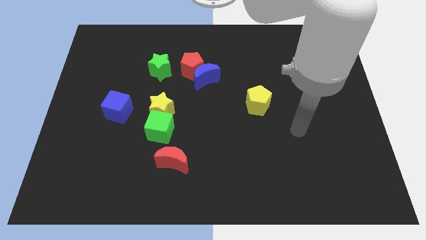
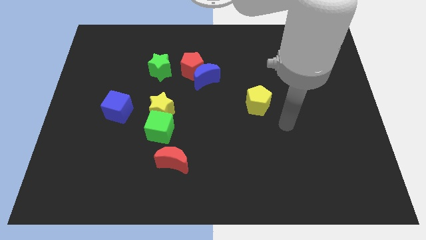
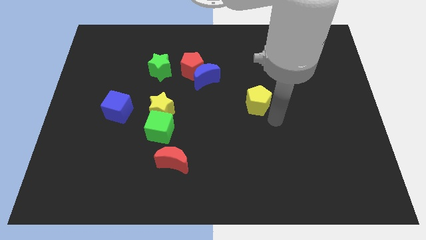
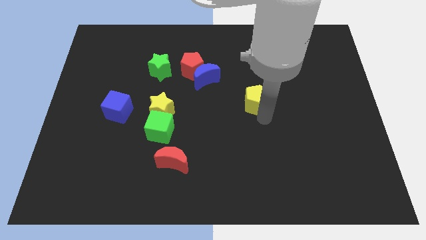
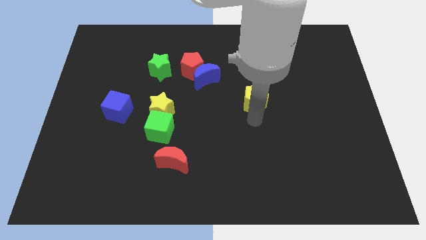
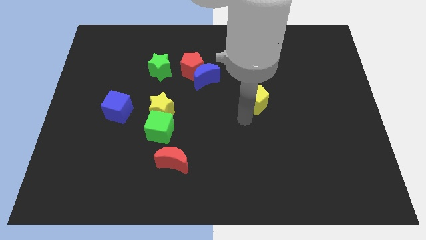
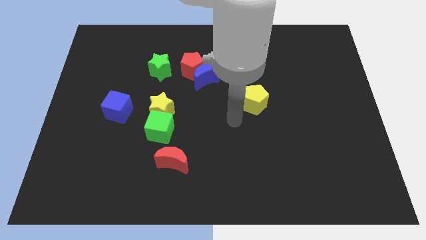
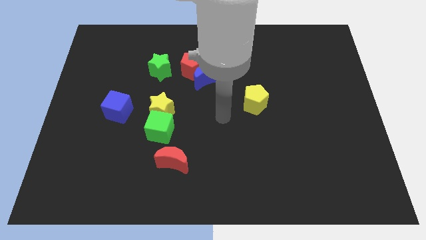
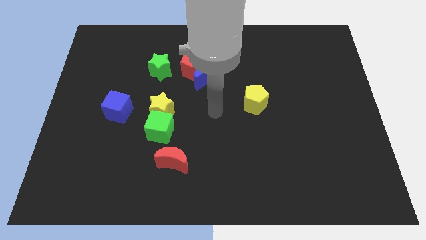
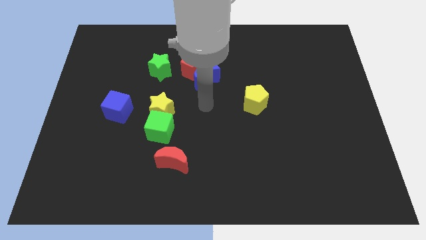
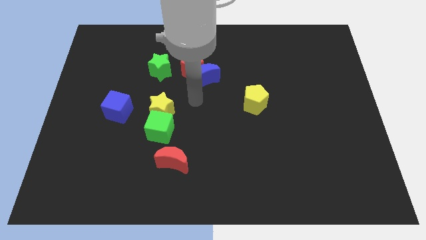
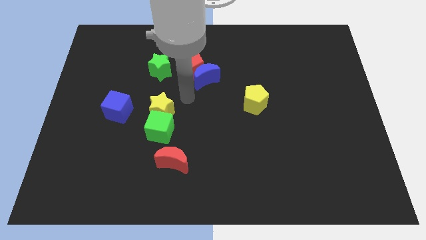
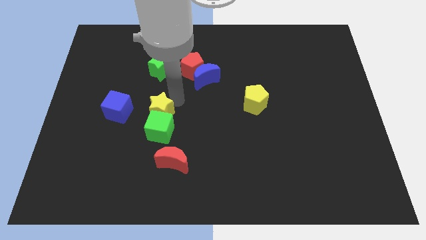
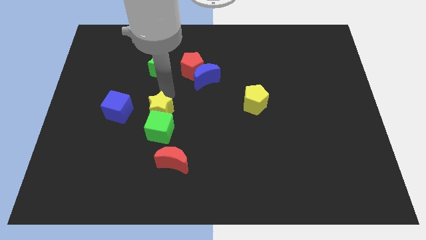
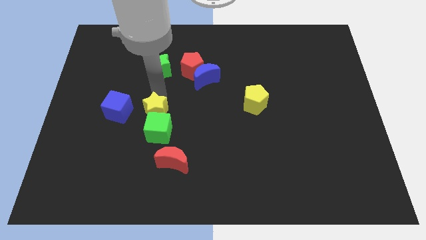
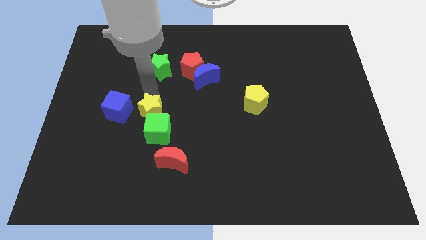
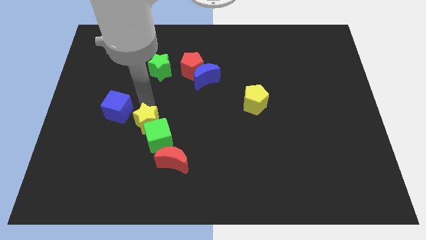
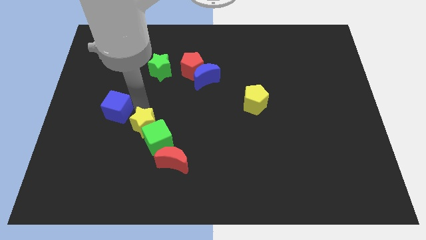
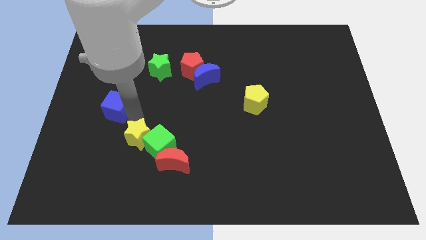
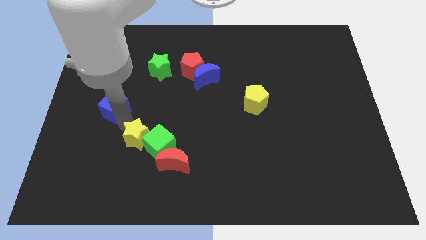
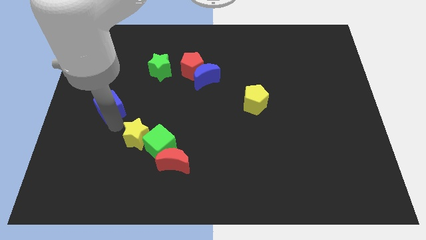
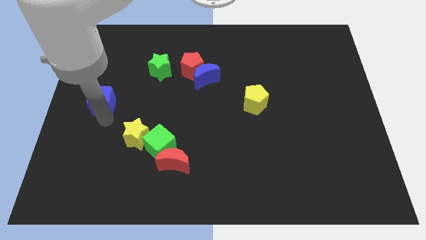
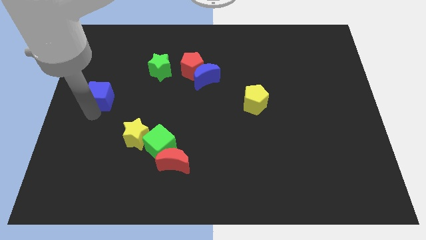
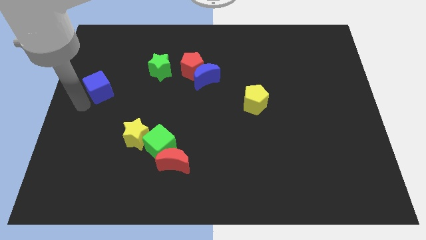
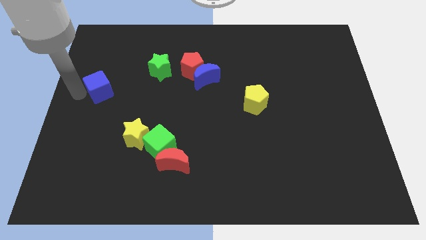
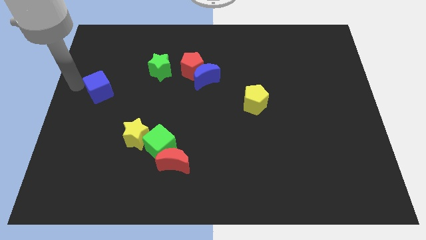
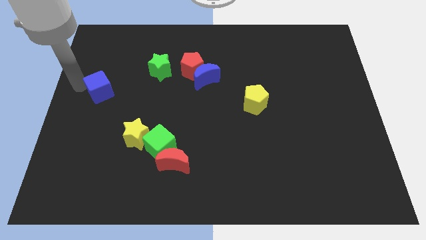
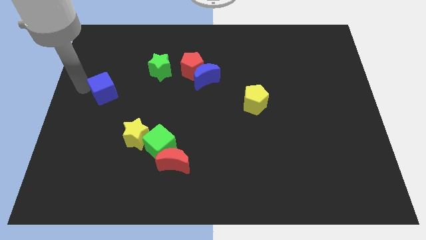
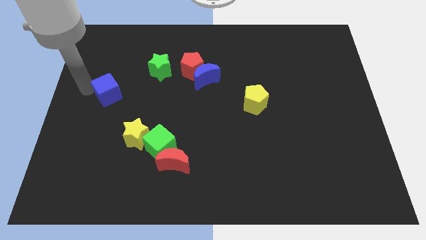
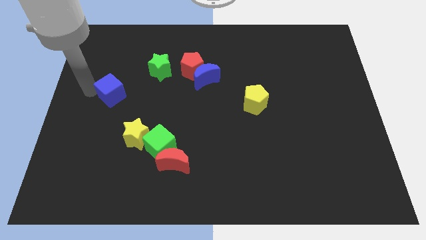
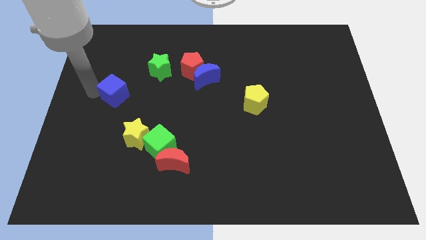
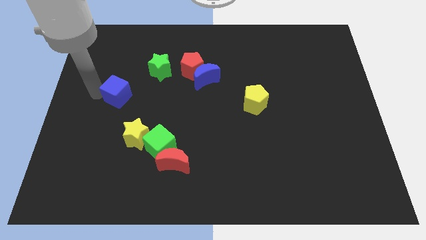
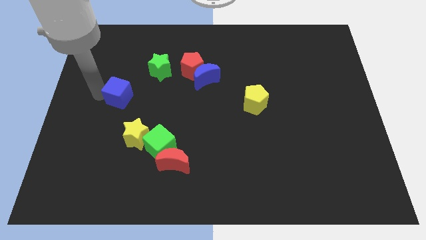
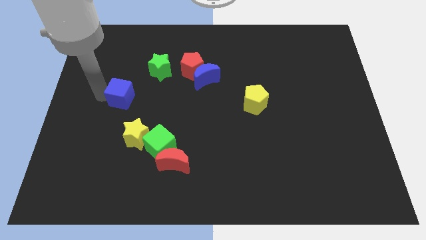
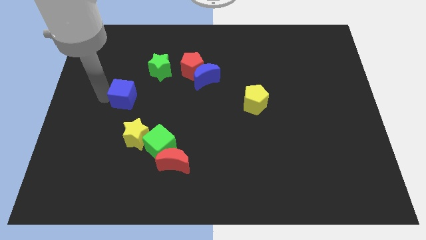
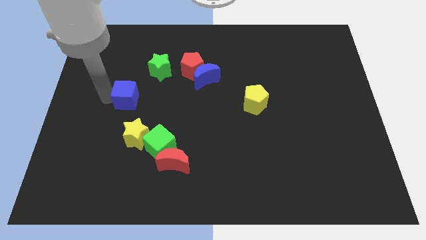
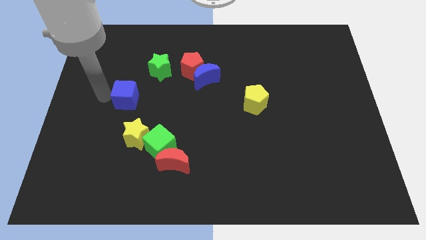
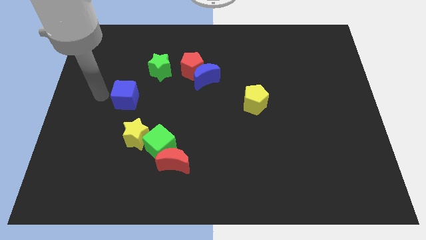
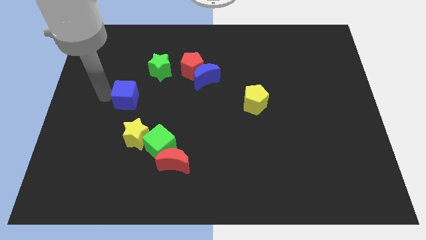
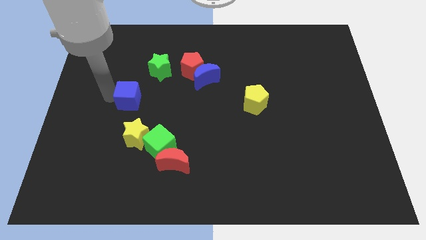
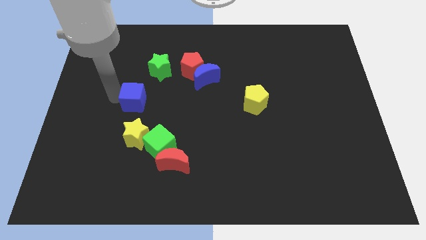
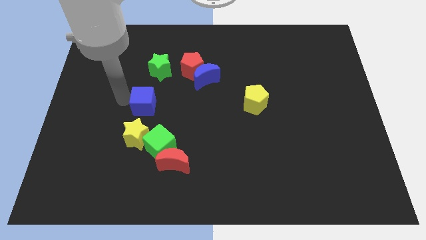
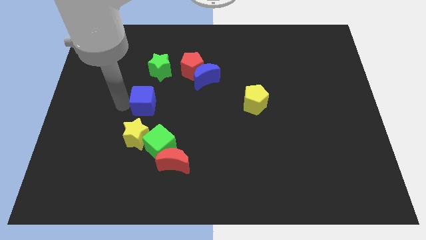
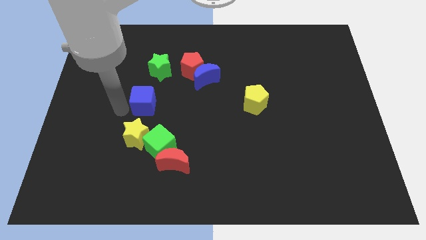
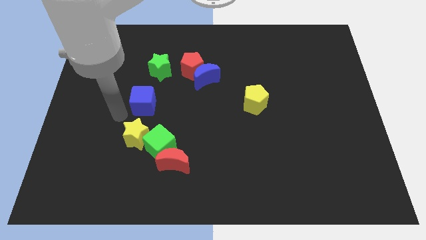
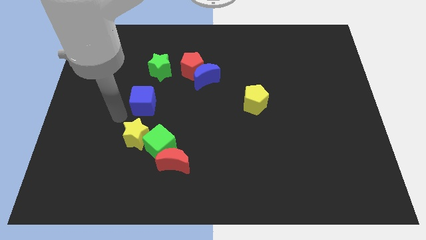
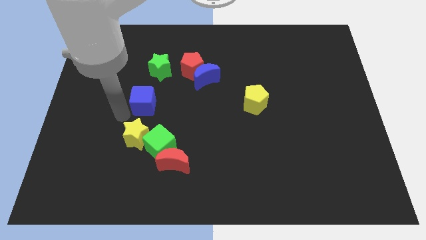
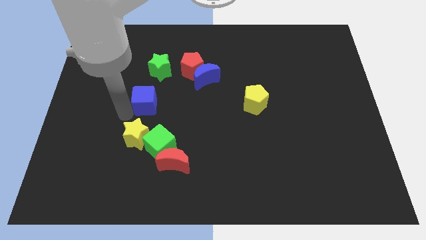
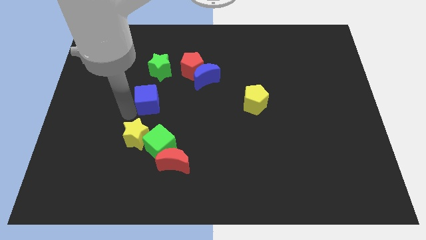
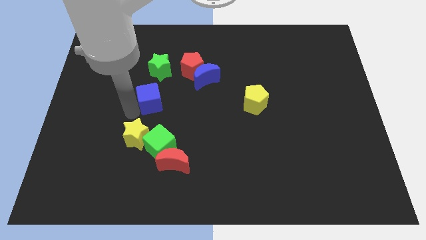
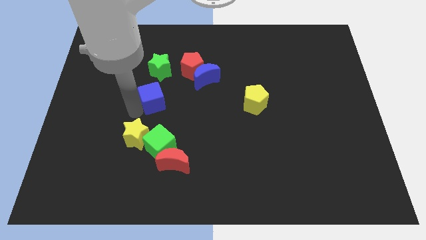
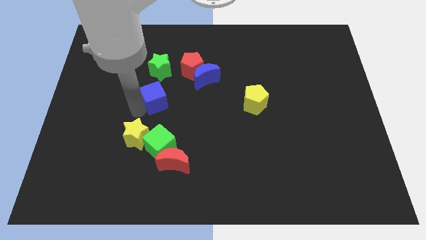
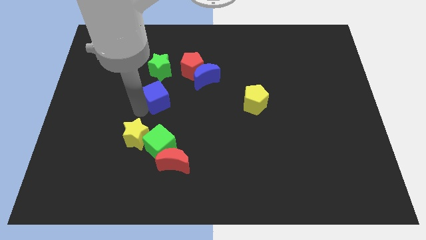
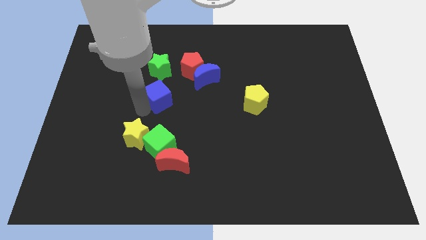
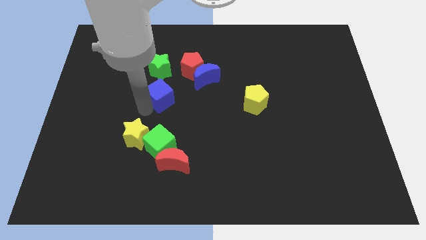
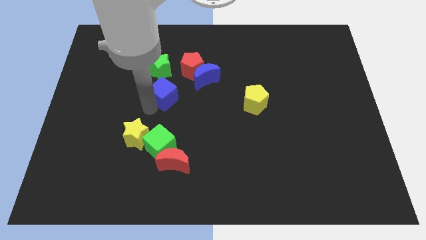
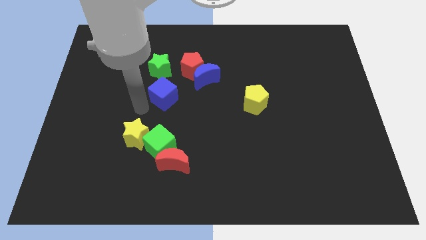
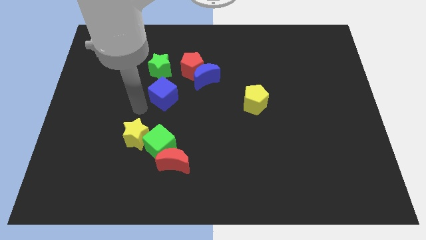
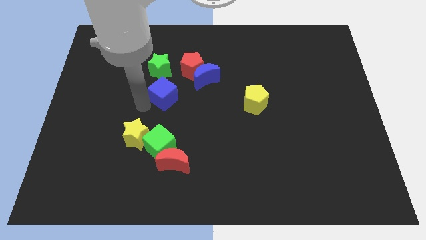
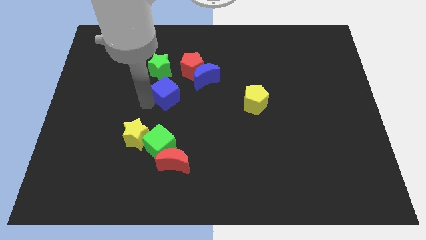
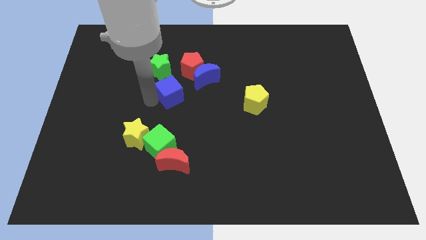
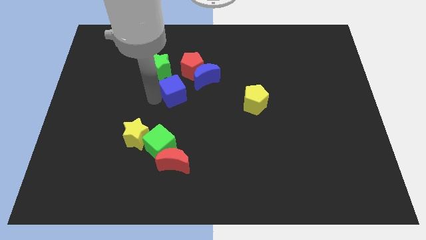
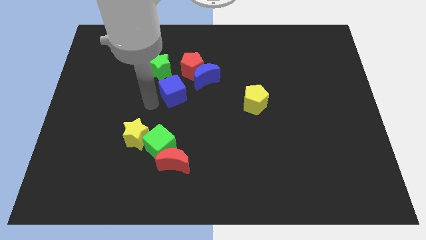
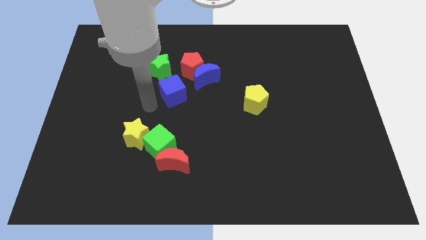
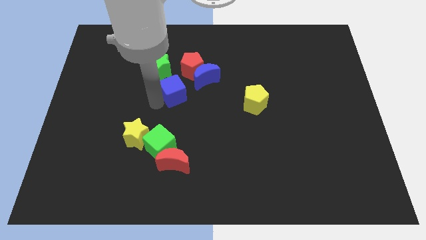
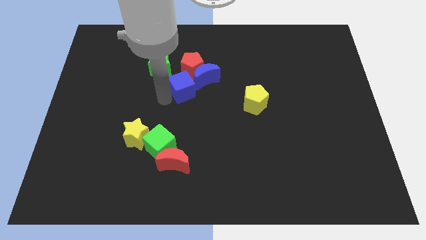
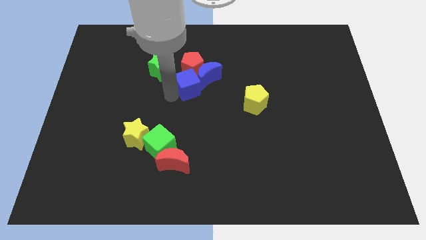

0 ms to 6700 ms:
move the blue cube towards the blue moon
